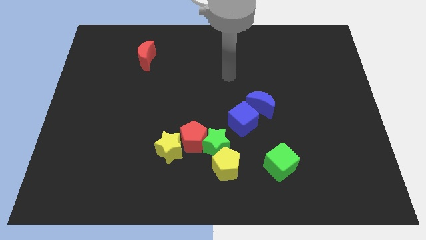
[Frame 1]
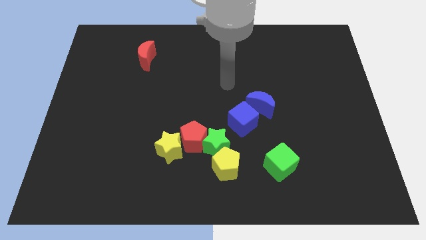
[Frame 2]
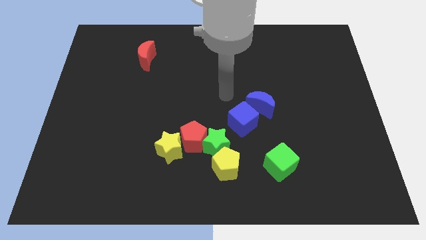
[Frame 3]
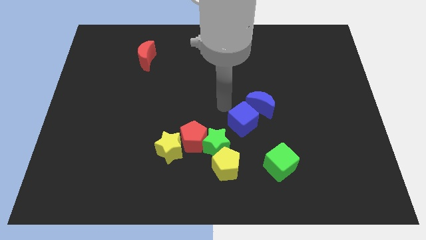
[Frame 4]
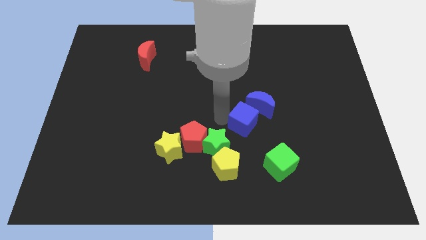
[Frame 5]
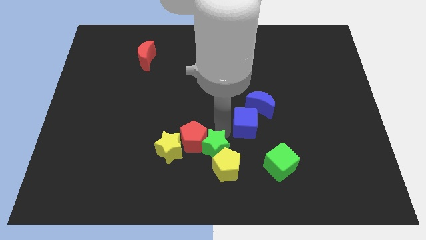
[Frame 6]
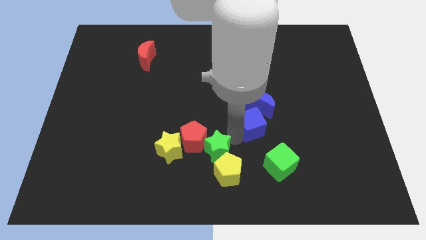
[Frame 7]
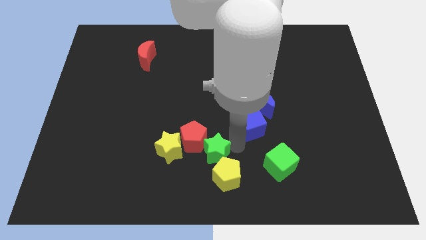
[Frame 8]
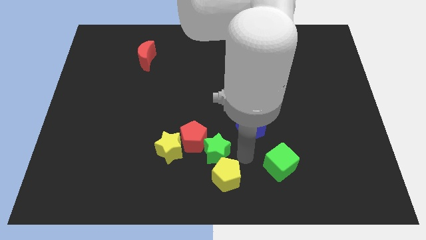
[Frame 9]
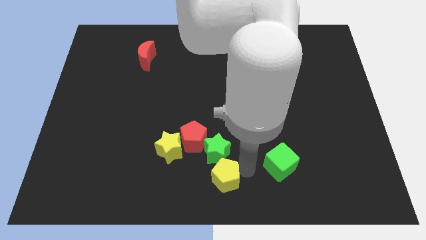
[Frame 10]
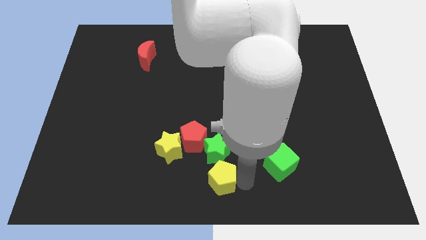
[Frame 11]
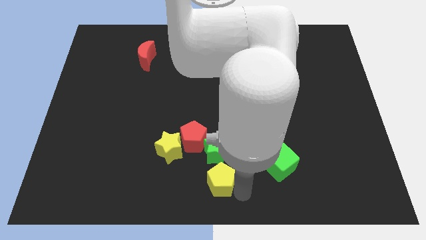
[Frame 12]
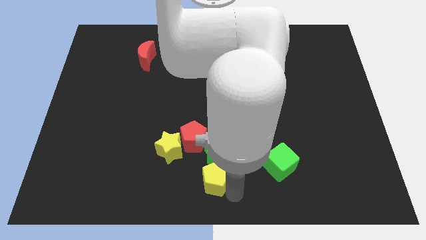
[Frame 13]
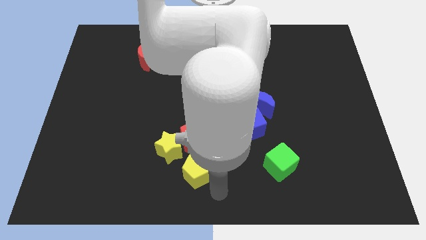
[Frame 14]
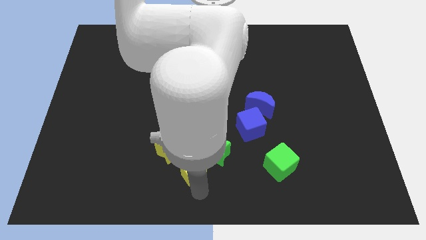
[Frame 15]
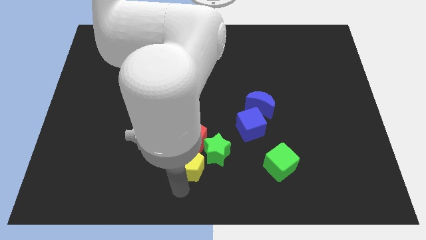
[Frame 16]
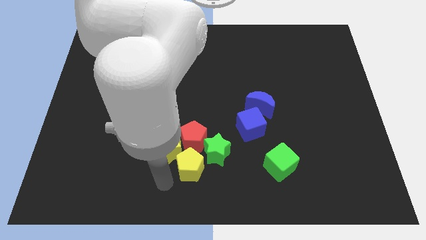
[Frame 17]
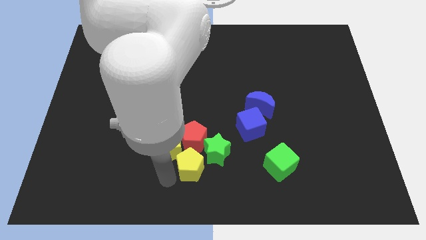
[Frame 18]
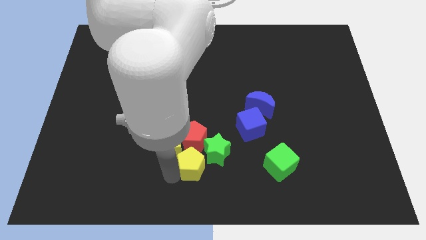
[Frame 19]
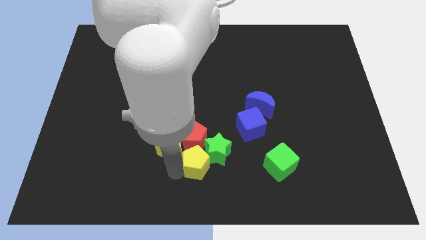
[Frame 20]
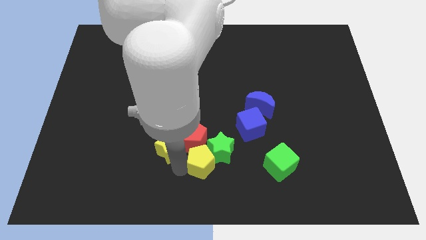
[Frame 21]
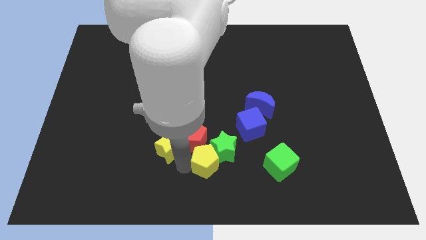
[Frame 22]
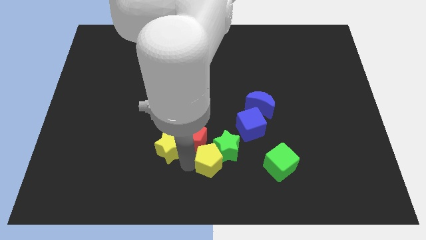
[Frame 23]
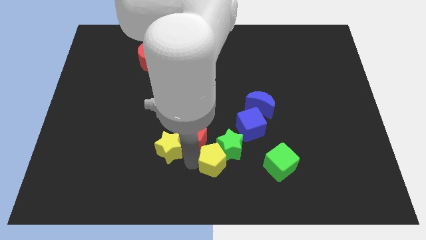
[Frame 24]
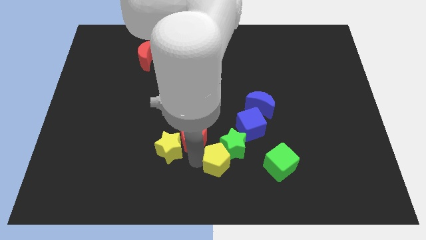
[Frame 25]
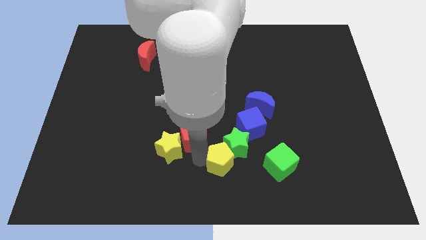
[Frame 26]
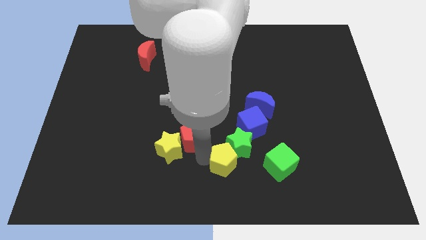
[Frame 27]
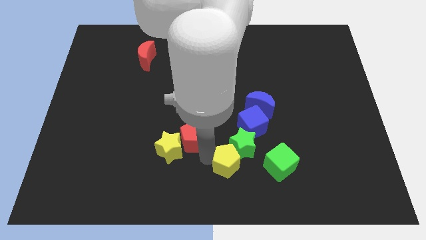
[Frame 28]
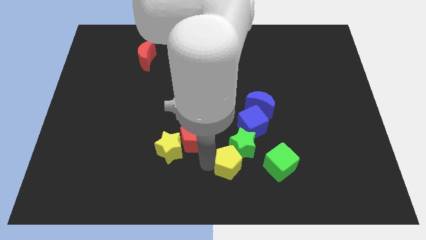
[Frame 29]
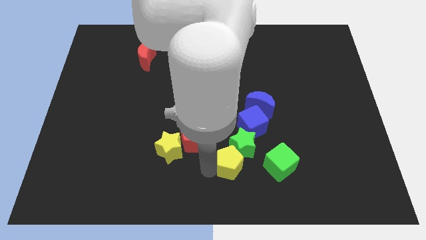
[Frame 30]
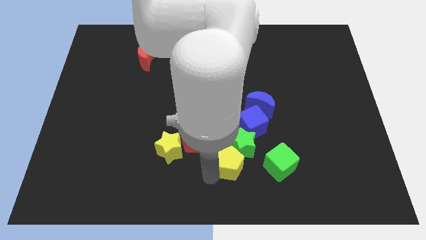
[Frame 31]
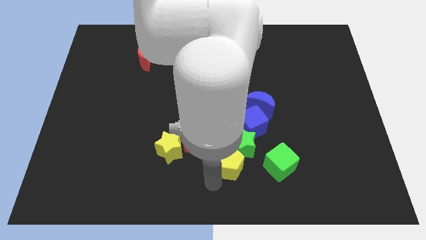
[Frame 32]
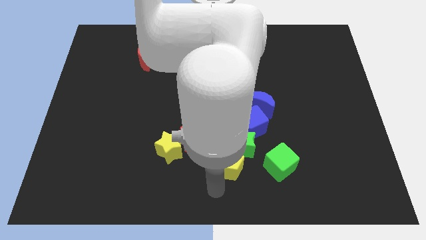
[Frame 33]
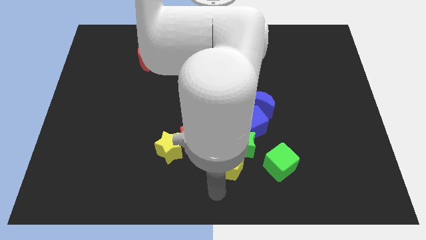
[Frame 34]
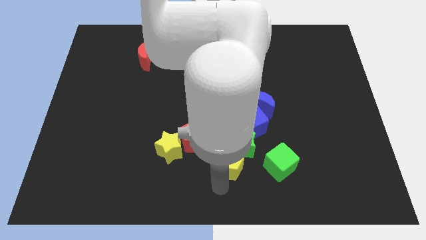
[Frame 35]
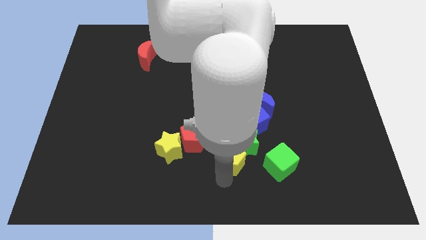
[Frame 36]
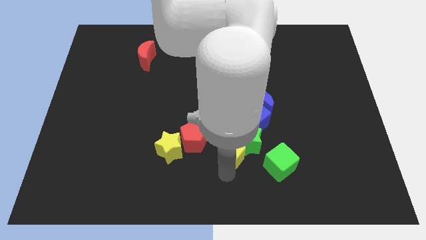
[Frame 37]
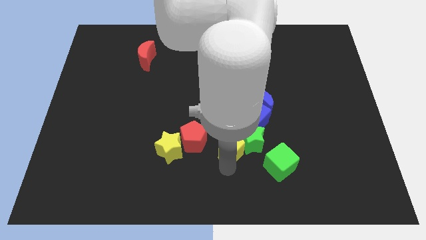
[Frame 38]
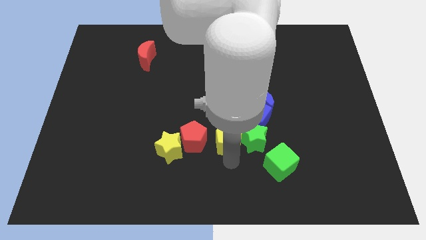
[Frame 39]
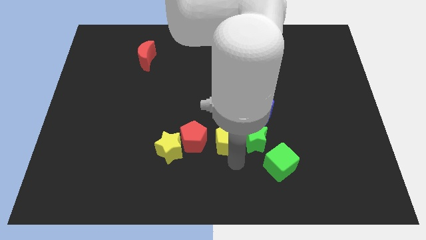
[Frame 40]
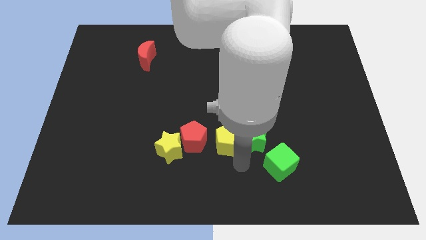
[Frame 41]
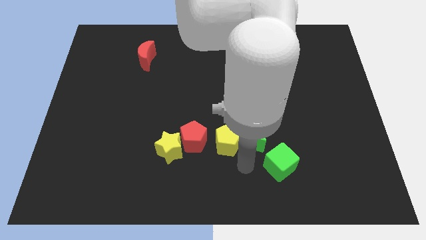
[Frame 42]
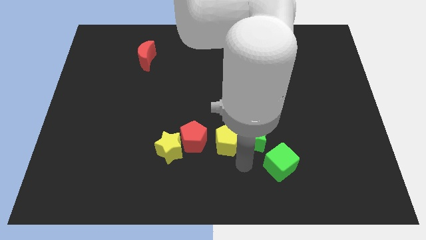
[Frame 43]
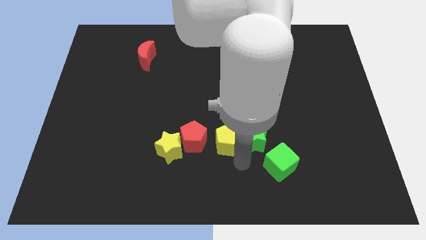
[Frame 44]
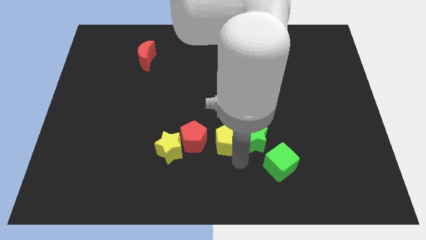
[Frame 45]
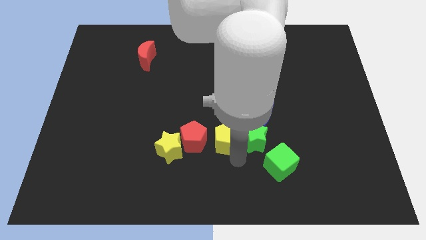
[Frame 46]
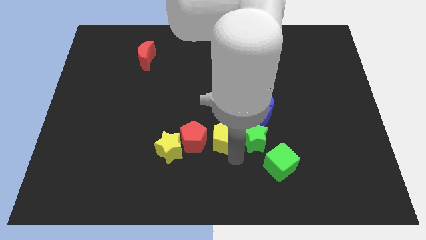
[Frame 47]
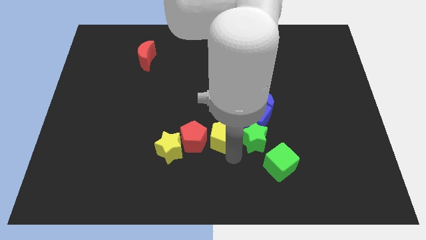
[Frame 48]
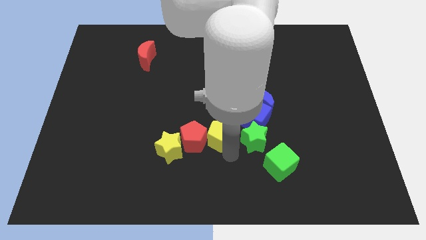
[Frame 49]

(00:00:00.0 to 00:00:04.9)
slide the yellow pentagon somewhat upwards

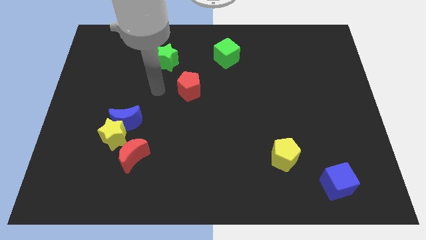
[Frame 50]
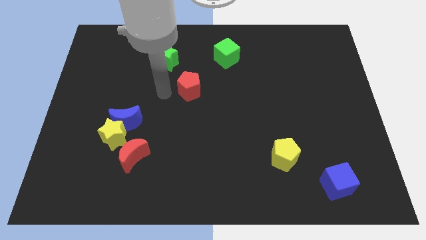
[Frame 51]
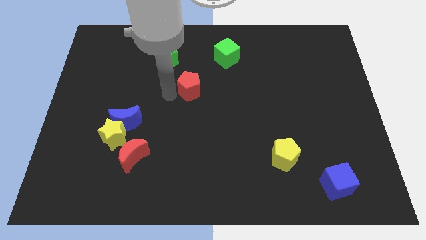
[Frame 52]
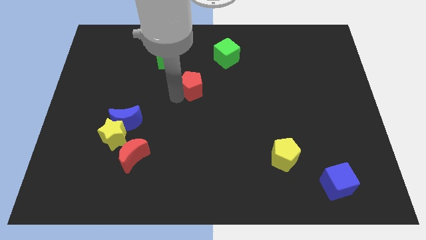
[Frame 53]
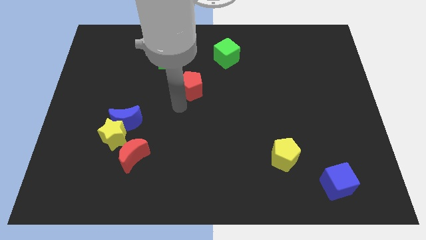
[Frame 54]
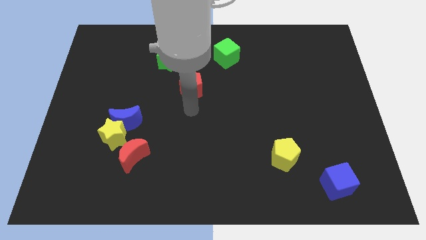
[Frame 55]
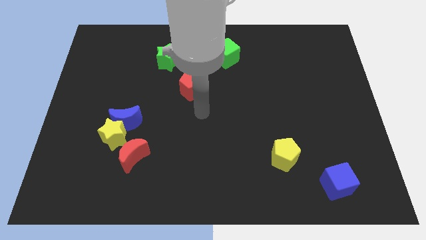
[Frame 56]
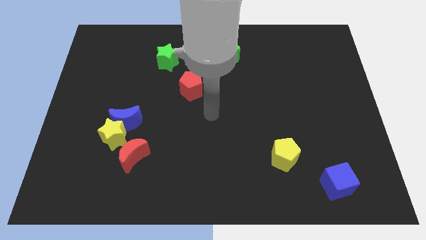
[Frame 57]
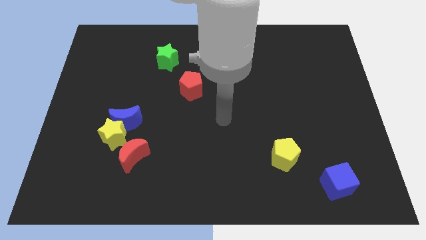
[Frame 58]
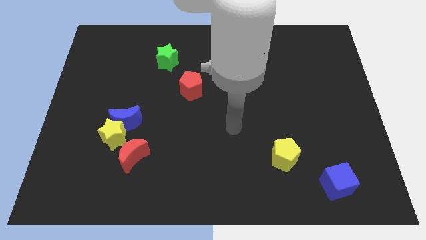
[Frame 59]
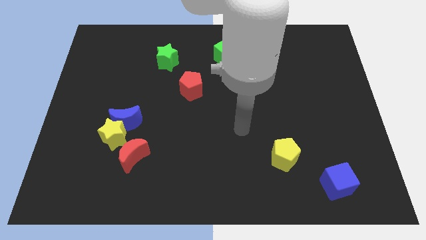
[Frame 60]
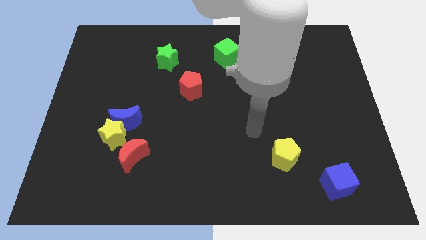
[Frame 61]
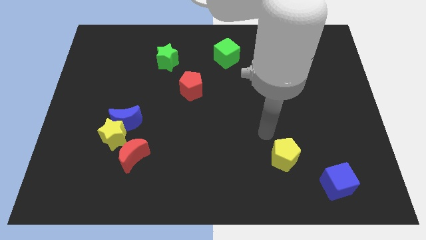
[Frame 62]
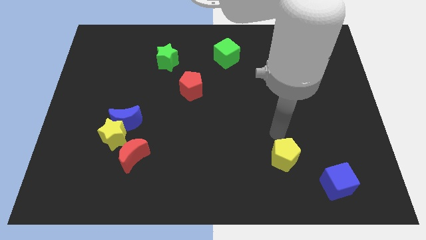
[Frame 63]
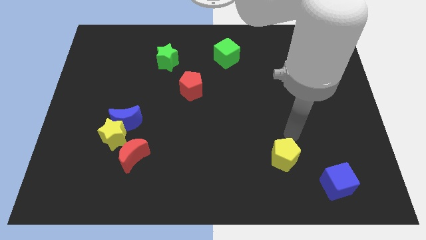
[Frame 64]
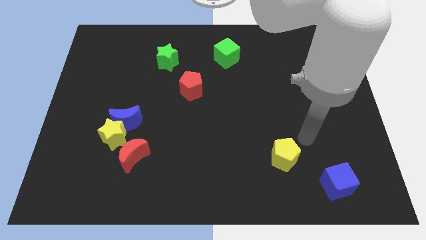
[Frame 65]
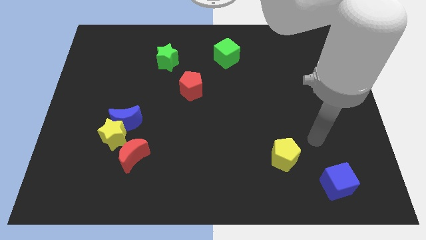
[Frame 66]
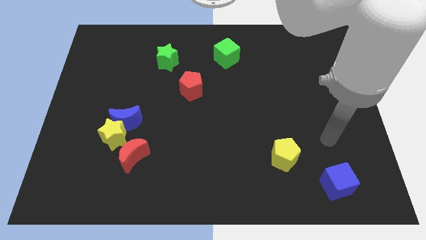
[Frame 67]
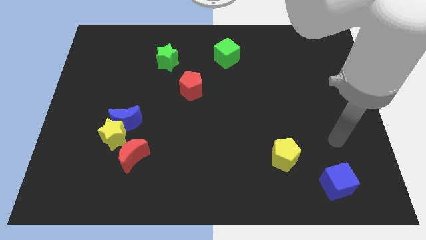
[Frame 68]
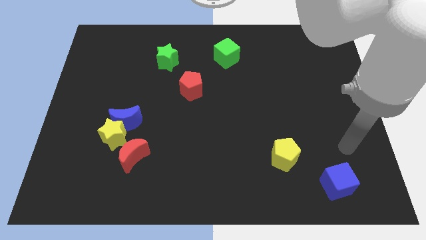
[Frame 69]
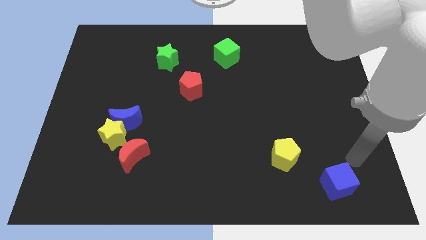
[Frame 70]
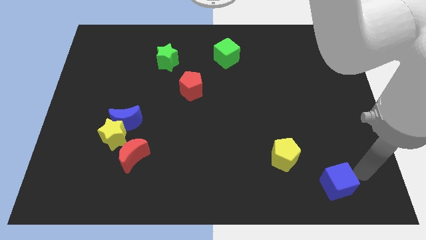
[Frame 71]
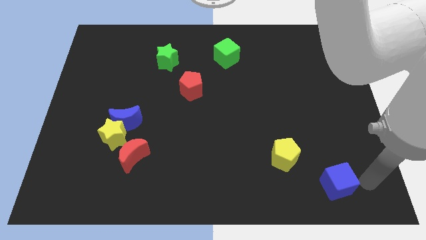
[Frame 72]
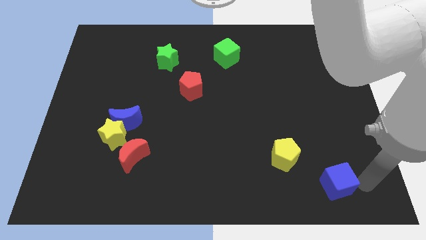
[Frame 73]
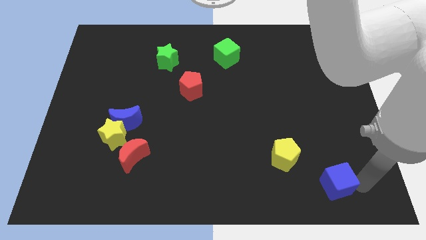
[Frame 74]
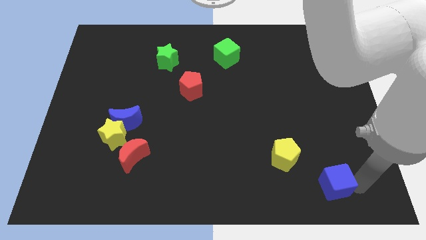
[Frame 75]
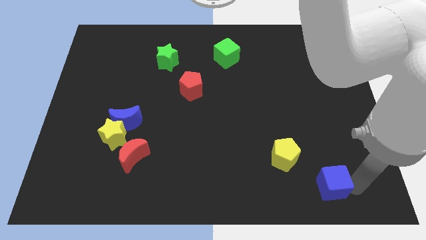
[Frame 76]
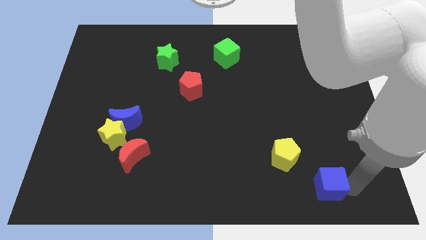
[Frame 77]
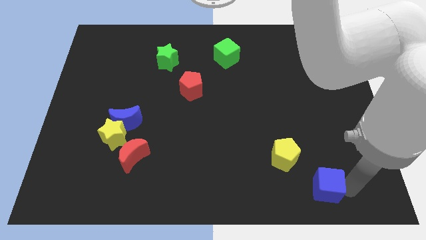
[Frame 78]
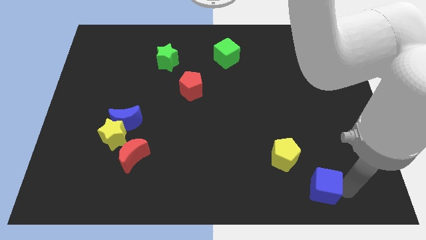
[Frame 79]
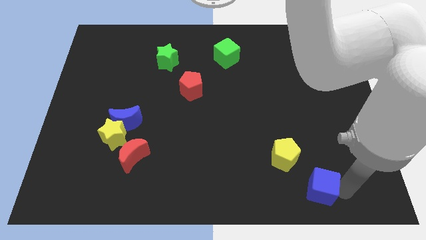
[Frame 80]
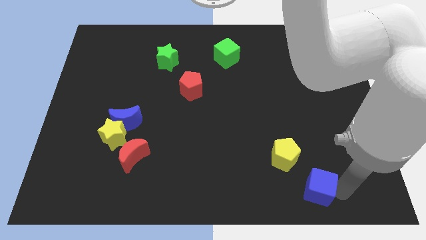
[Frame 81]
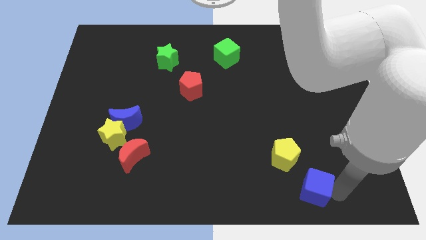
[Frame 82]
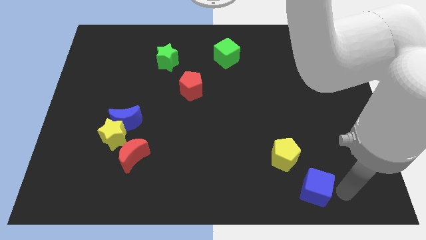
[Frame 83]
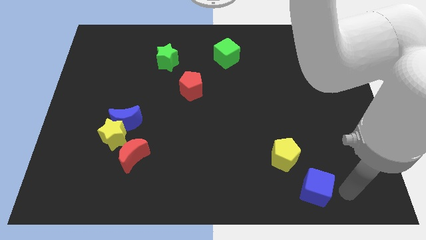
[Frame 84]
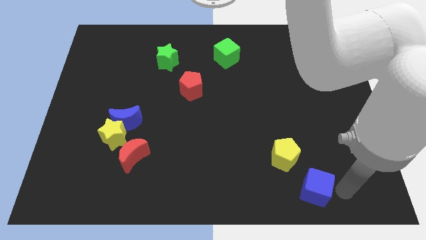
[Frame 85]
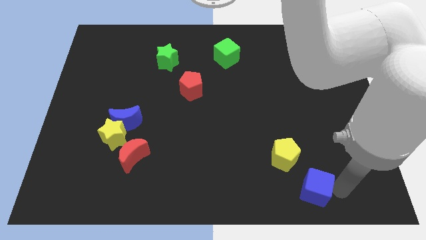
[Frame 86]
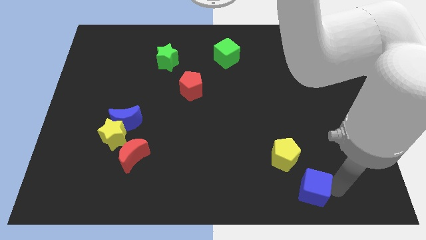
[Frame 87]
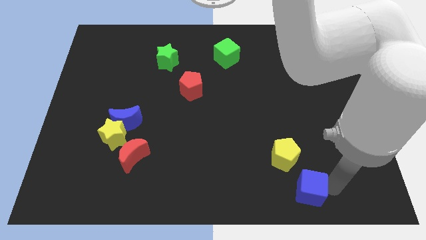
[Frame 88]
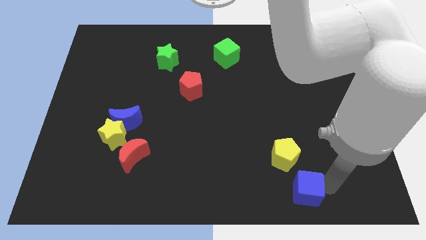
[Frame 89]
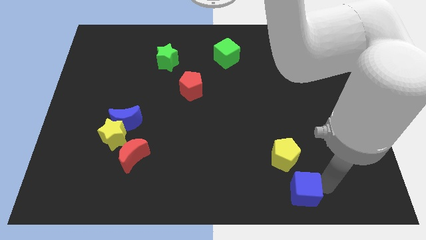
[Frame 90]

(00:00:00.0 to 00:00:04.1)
push the blue cube slightly left
